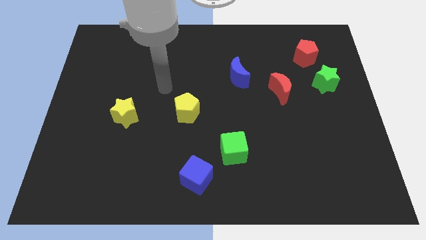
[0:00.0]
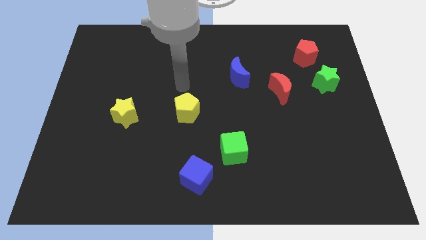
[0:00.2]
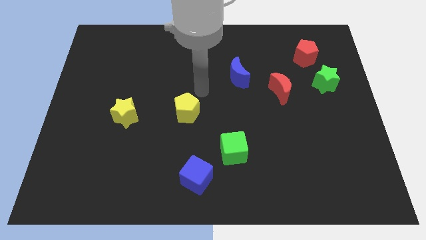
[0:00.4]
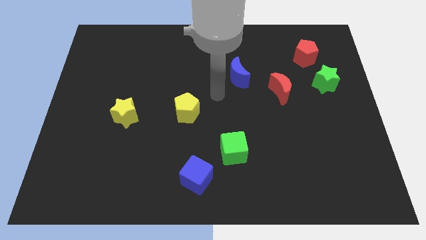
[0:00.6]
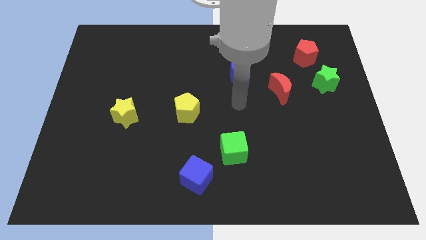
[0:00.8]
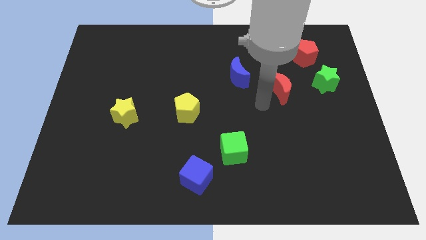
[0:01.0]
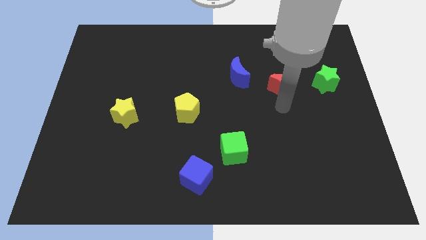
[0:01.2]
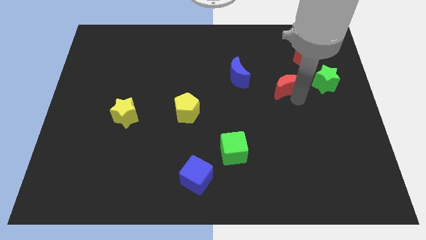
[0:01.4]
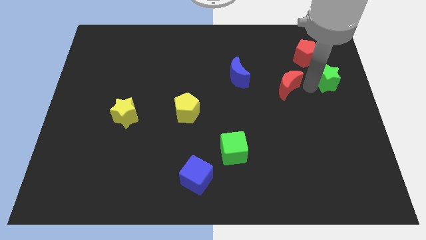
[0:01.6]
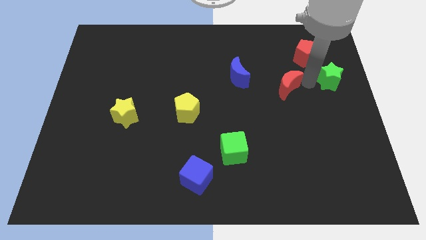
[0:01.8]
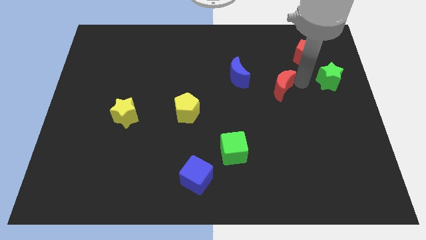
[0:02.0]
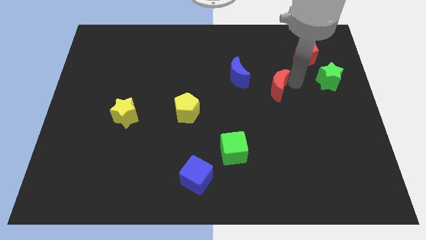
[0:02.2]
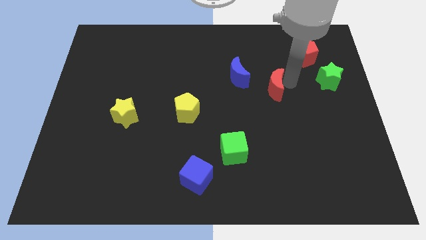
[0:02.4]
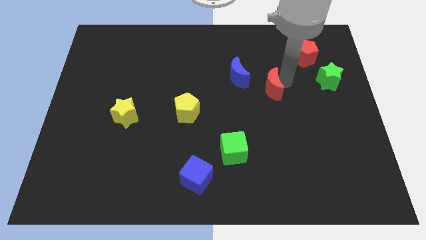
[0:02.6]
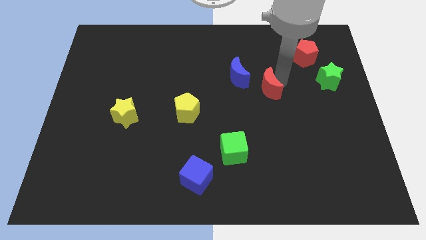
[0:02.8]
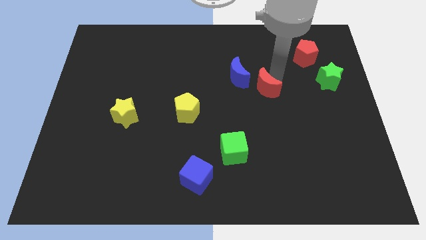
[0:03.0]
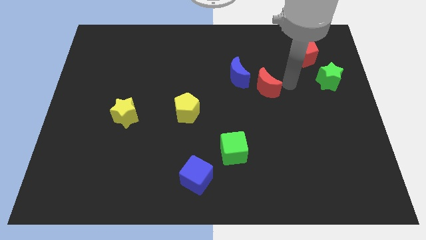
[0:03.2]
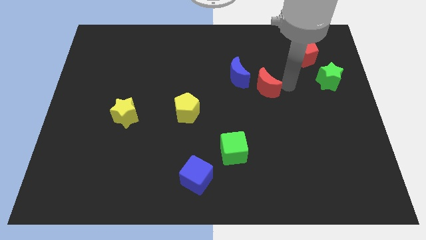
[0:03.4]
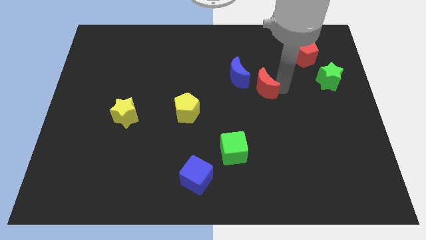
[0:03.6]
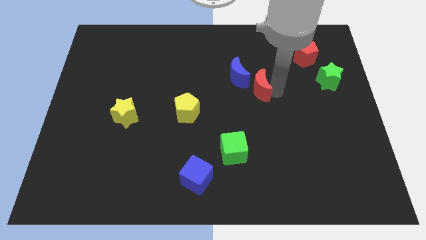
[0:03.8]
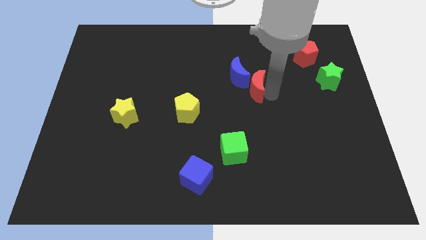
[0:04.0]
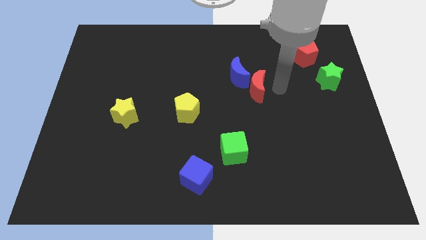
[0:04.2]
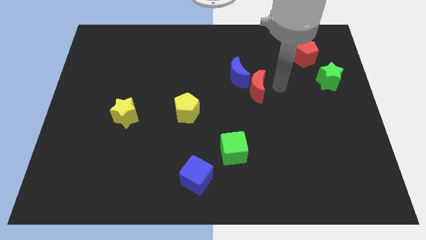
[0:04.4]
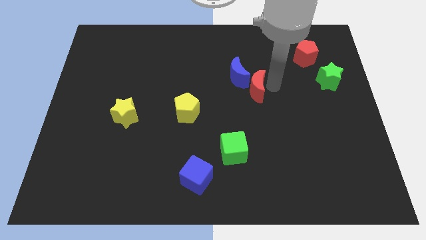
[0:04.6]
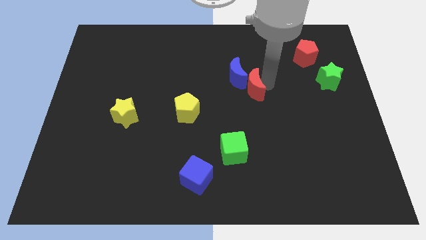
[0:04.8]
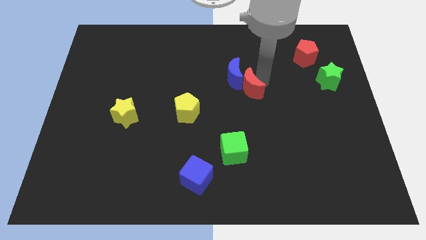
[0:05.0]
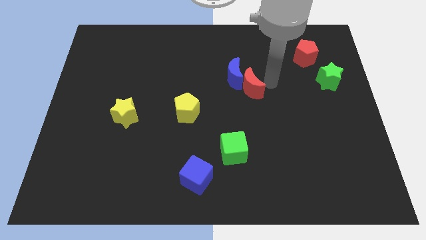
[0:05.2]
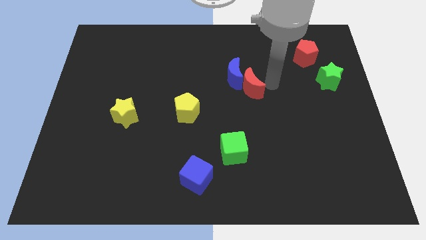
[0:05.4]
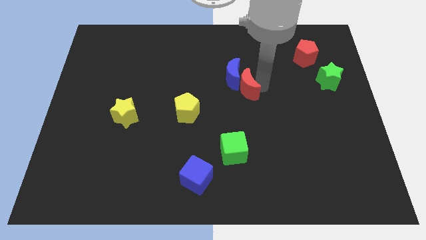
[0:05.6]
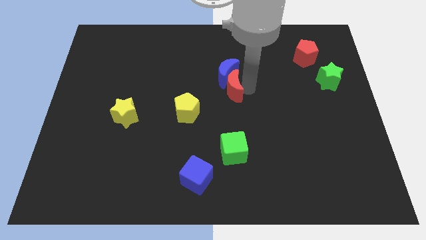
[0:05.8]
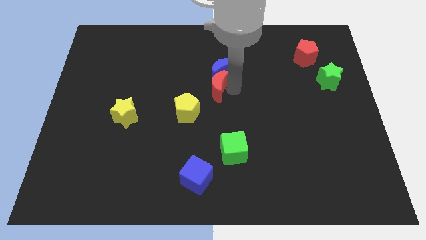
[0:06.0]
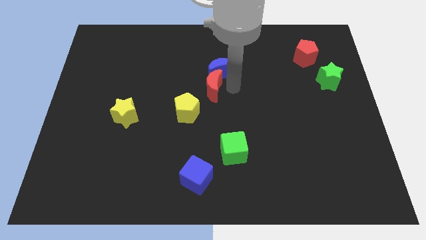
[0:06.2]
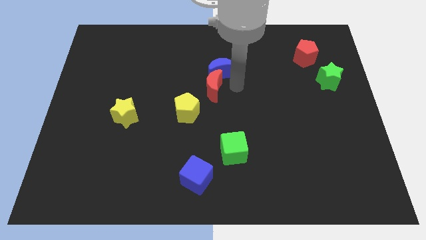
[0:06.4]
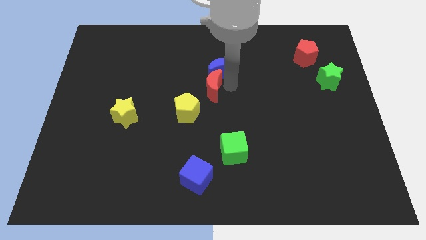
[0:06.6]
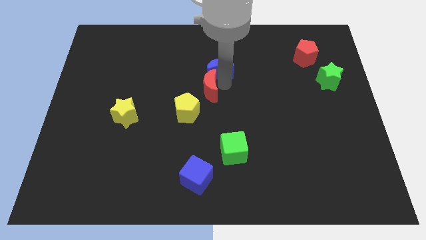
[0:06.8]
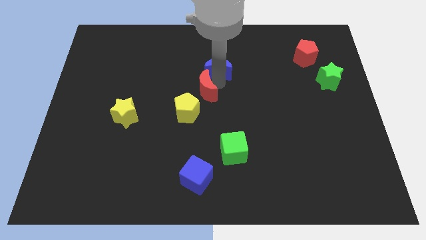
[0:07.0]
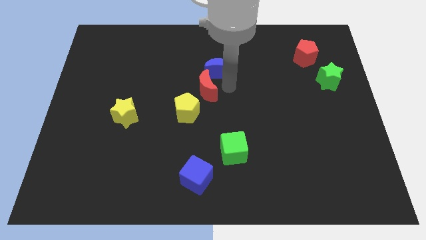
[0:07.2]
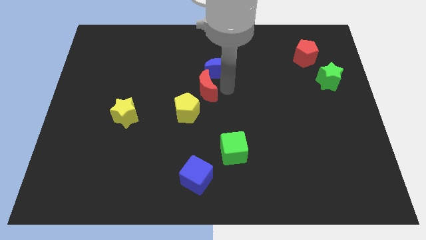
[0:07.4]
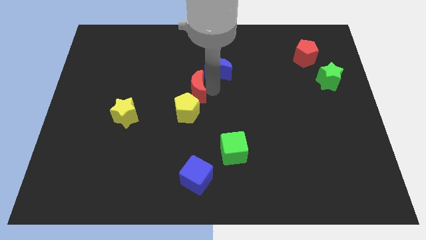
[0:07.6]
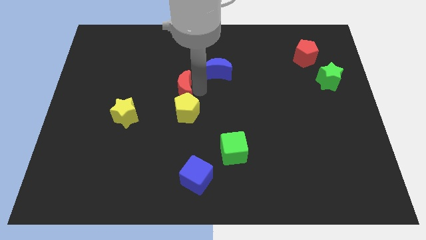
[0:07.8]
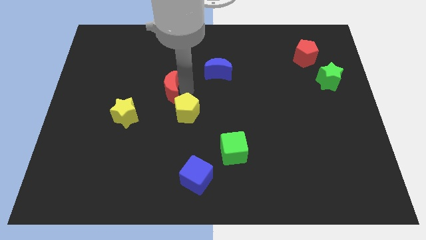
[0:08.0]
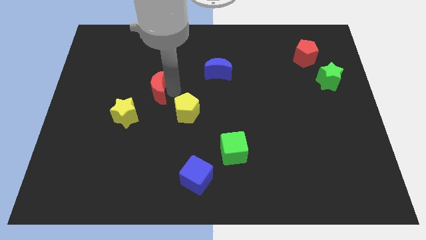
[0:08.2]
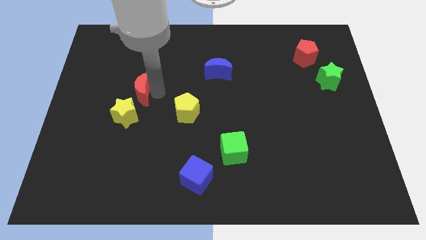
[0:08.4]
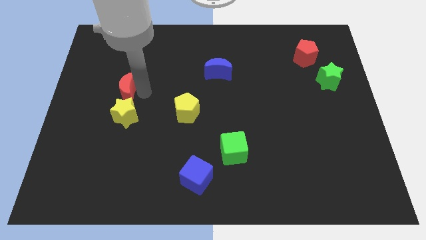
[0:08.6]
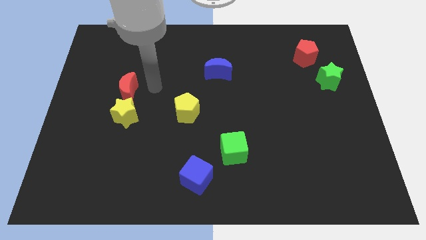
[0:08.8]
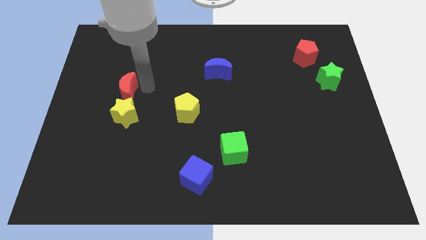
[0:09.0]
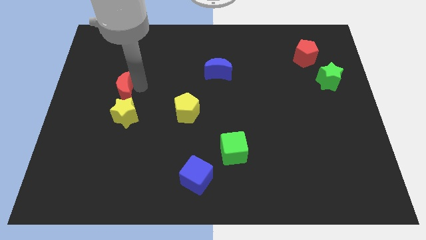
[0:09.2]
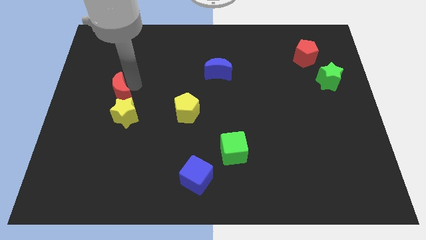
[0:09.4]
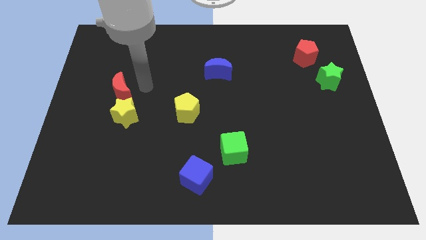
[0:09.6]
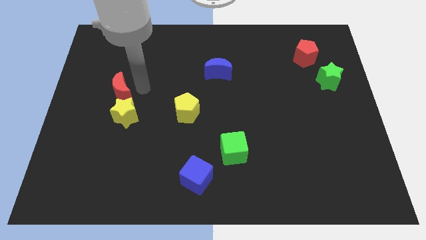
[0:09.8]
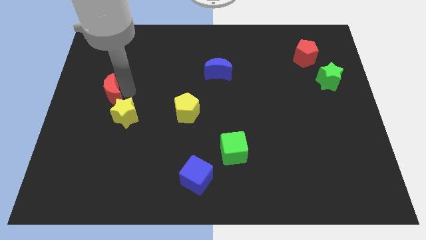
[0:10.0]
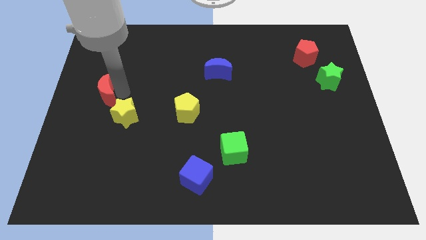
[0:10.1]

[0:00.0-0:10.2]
slide the red moon to the center left

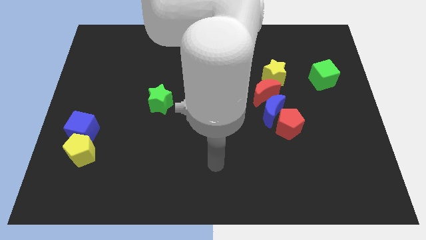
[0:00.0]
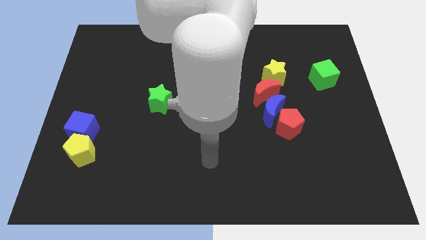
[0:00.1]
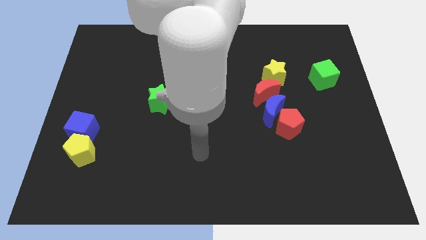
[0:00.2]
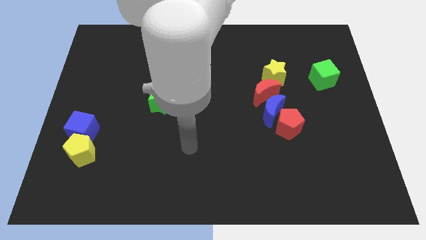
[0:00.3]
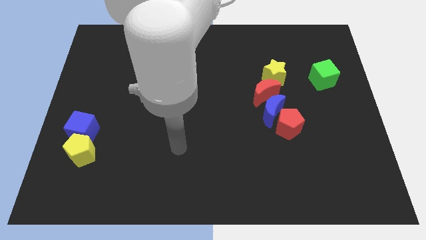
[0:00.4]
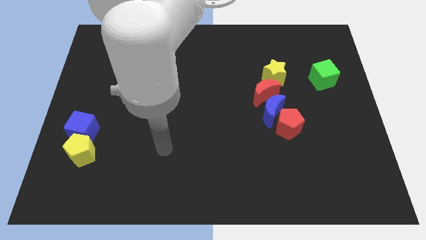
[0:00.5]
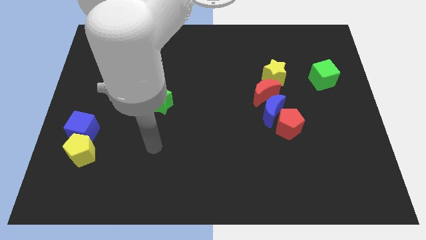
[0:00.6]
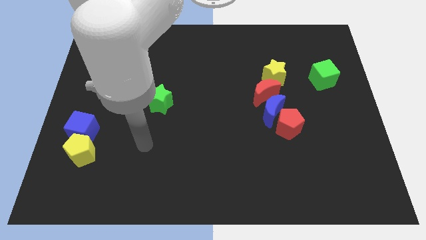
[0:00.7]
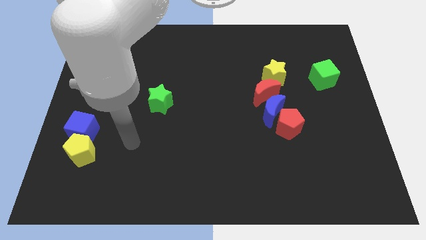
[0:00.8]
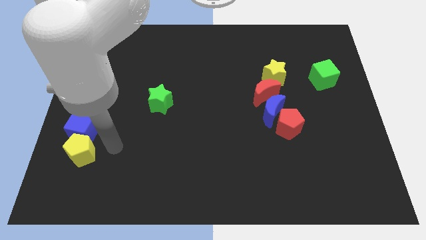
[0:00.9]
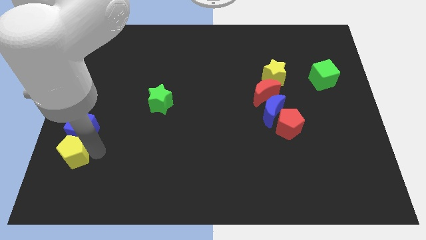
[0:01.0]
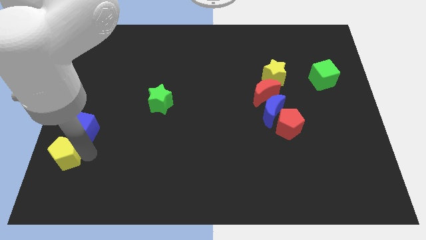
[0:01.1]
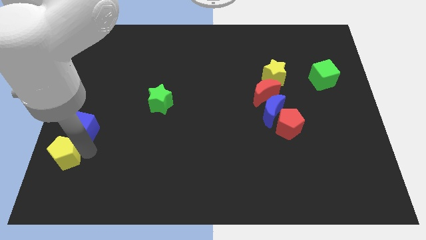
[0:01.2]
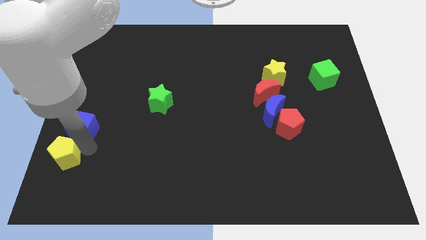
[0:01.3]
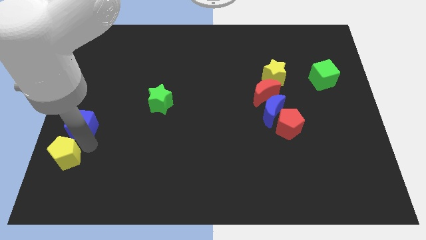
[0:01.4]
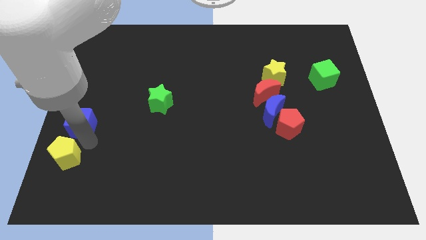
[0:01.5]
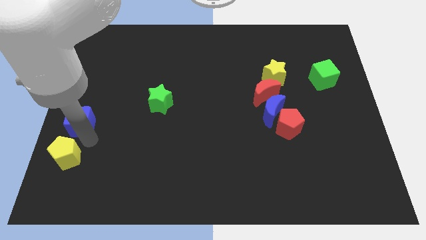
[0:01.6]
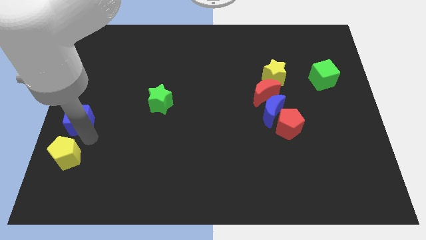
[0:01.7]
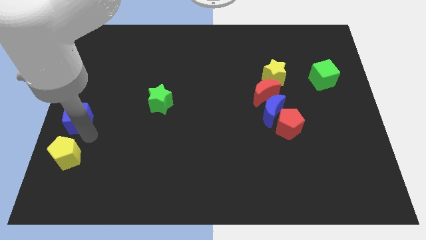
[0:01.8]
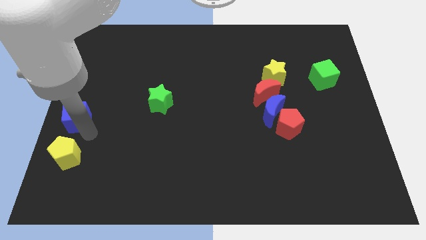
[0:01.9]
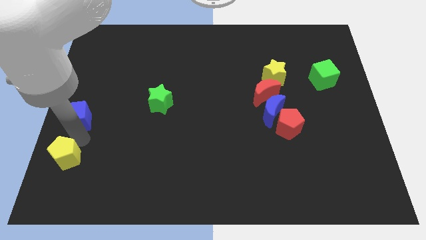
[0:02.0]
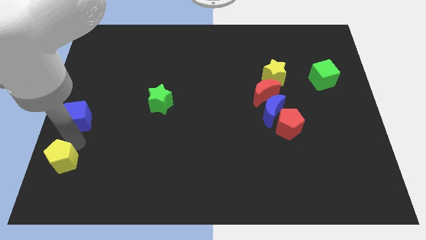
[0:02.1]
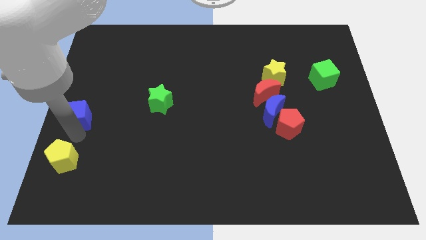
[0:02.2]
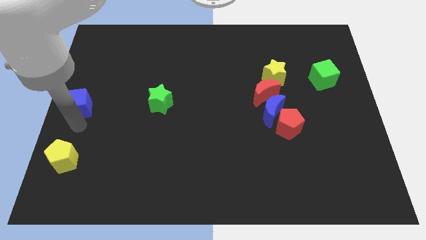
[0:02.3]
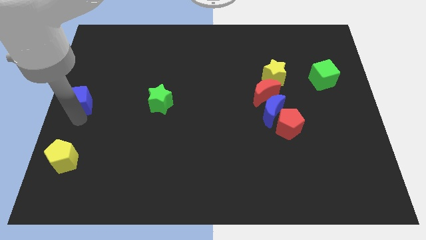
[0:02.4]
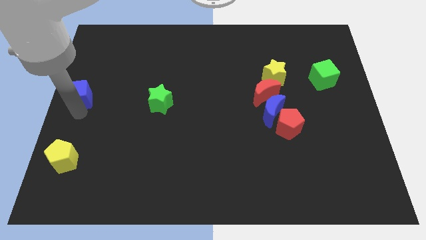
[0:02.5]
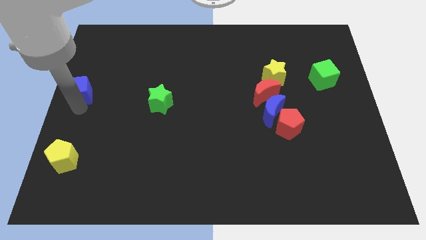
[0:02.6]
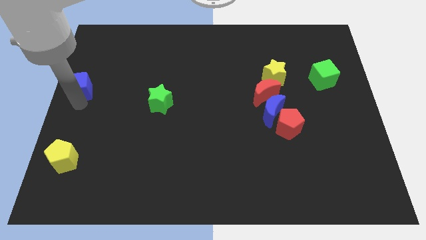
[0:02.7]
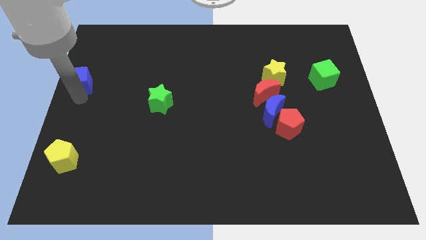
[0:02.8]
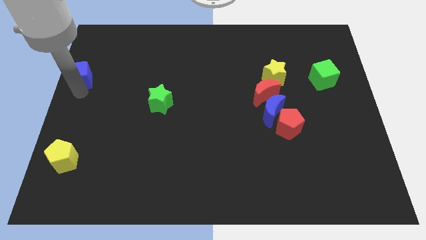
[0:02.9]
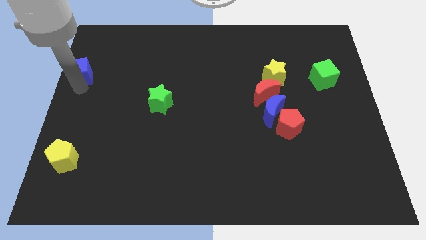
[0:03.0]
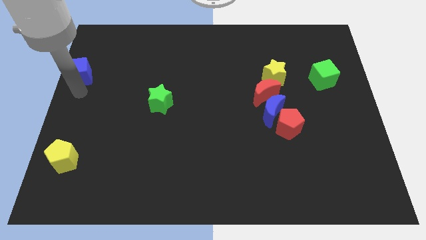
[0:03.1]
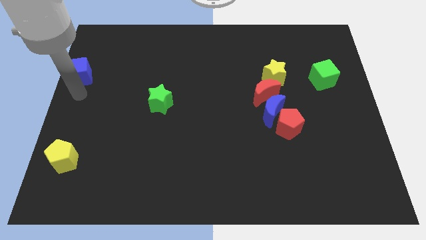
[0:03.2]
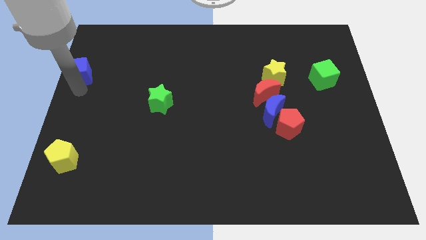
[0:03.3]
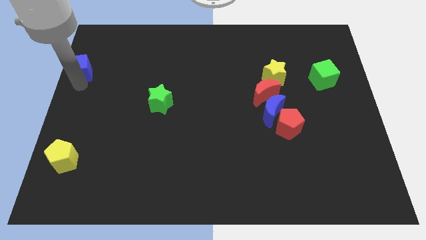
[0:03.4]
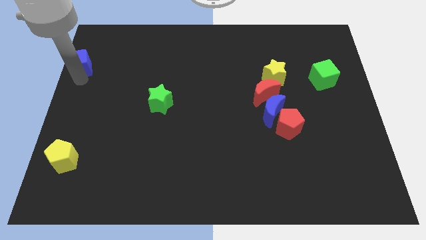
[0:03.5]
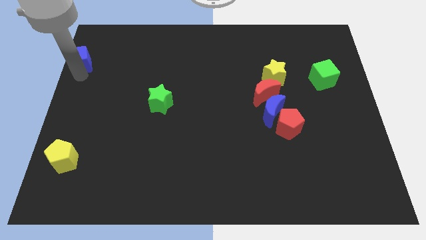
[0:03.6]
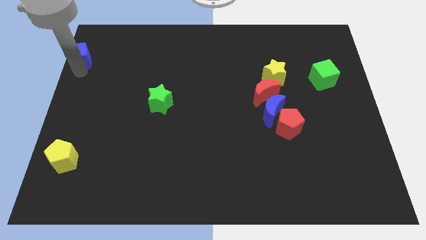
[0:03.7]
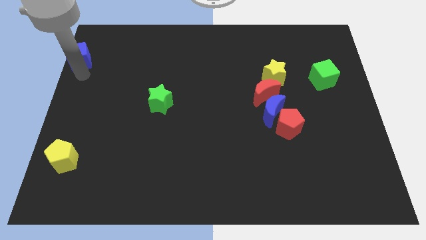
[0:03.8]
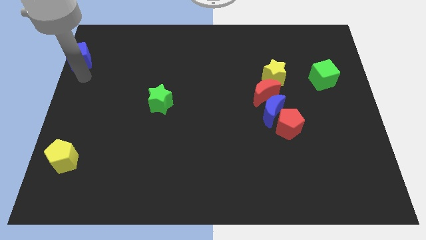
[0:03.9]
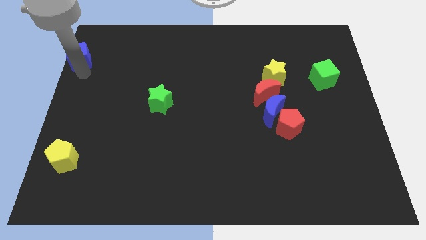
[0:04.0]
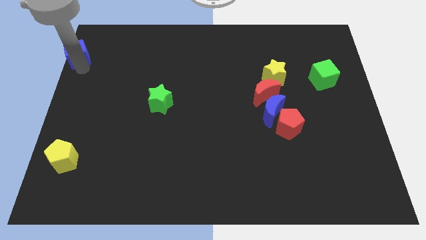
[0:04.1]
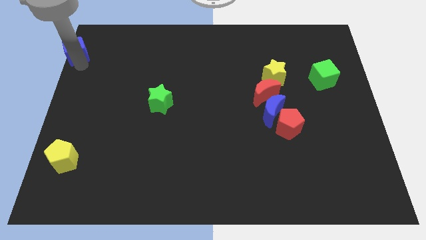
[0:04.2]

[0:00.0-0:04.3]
move the blue cube to the top left corner
